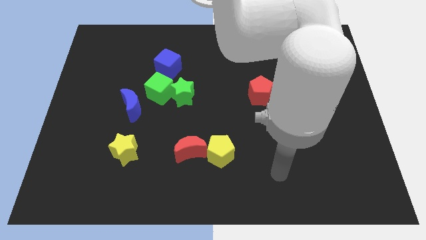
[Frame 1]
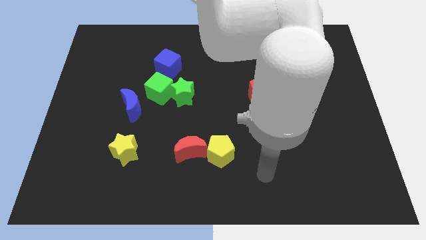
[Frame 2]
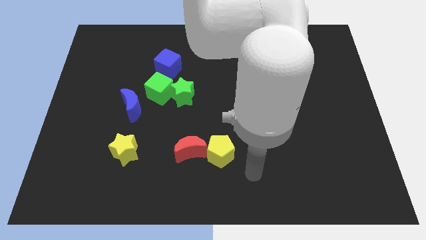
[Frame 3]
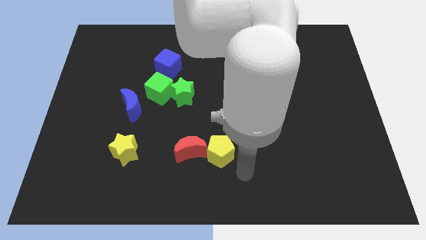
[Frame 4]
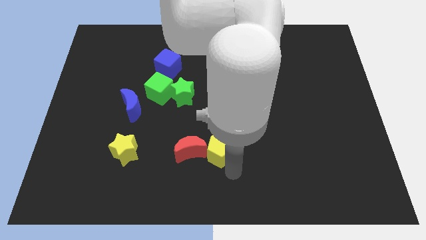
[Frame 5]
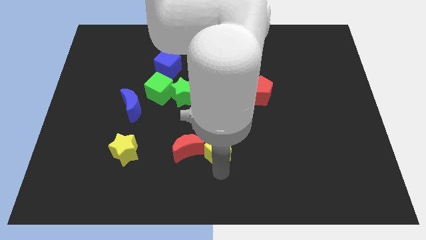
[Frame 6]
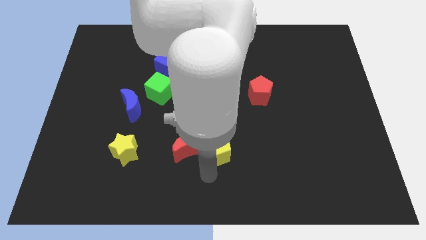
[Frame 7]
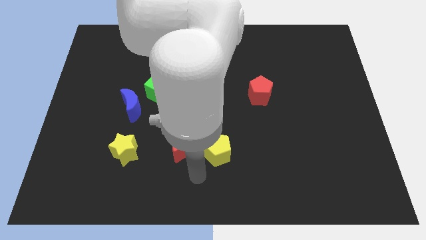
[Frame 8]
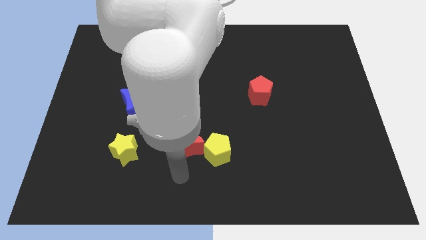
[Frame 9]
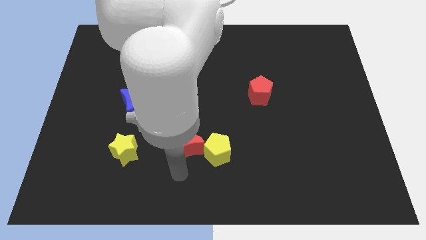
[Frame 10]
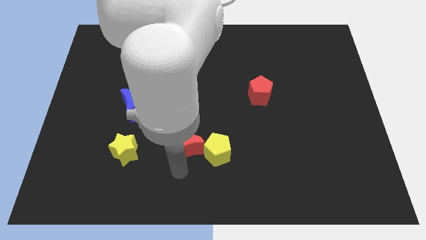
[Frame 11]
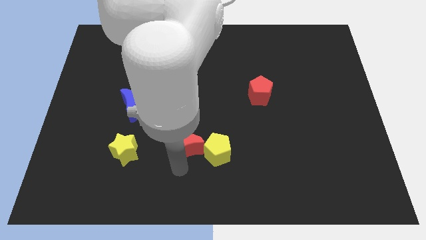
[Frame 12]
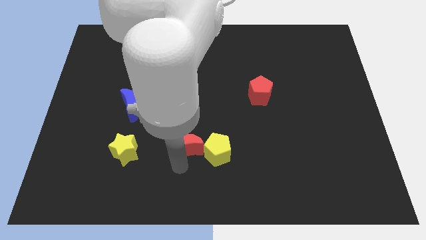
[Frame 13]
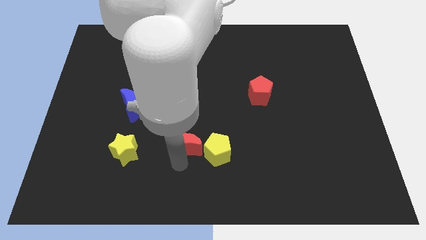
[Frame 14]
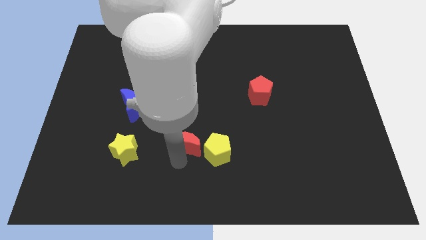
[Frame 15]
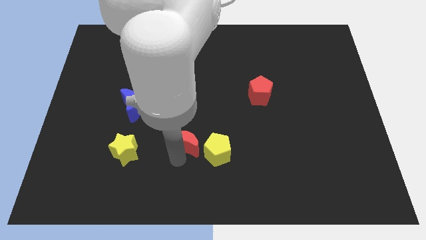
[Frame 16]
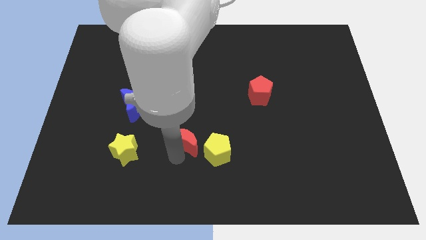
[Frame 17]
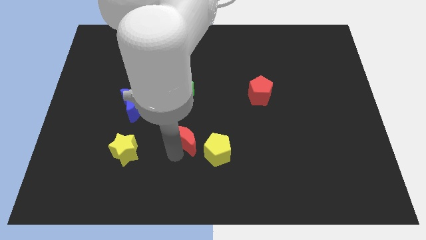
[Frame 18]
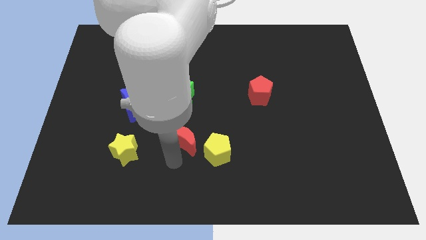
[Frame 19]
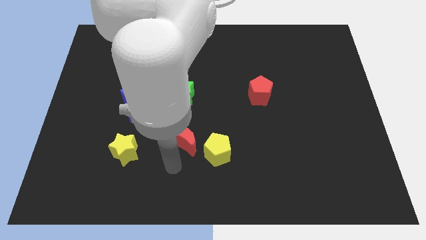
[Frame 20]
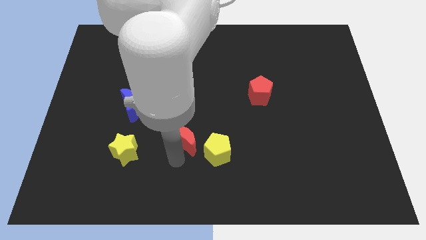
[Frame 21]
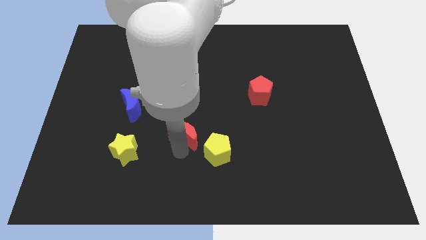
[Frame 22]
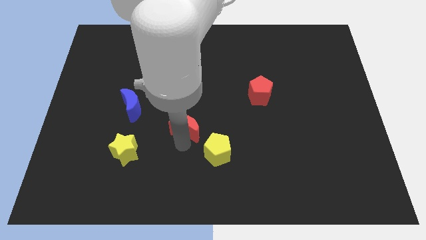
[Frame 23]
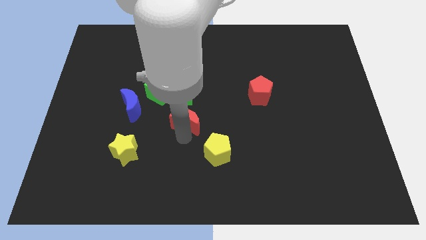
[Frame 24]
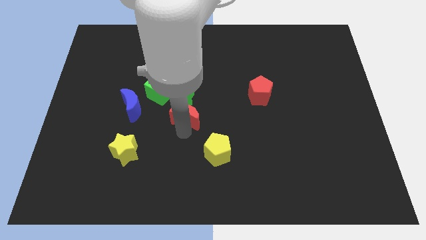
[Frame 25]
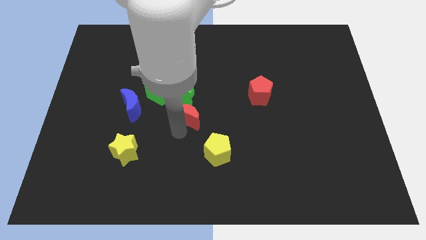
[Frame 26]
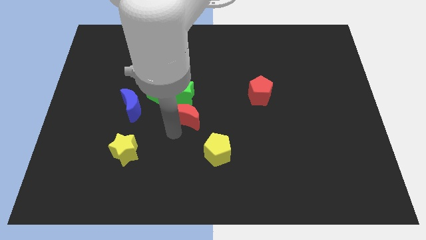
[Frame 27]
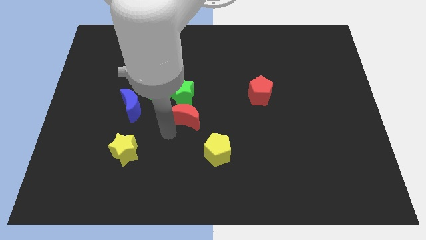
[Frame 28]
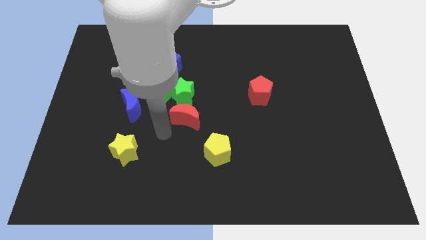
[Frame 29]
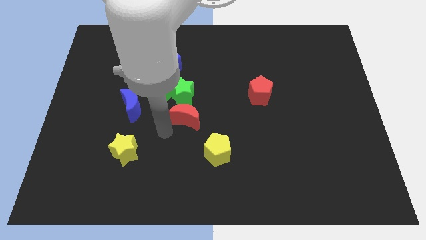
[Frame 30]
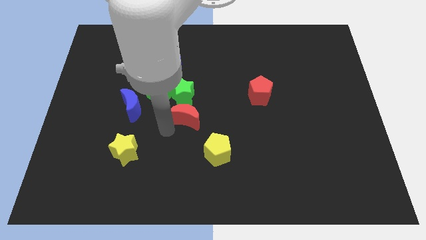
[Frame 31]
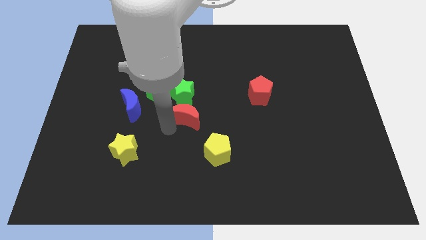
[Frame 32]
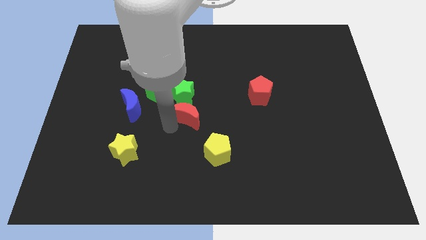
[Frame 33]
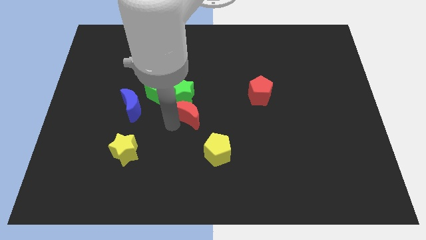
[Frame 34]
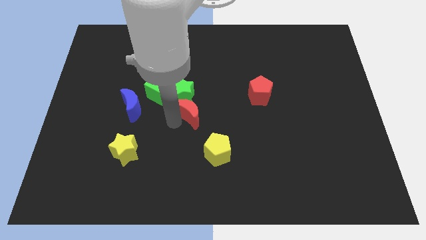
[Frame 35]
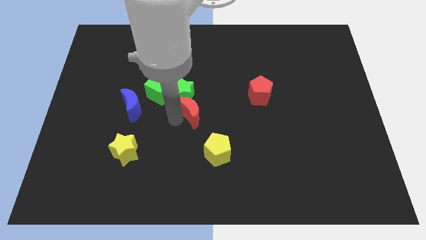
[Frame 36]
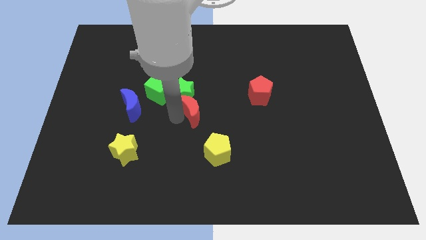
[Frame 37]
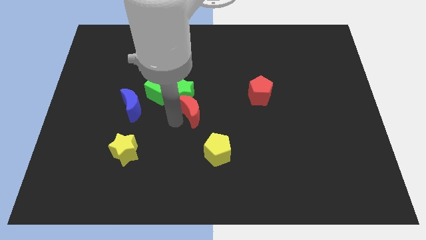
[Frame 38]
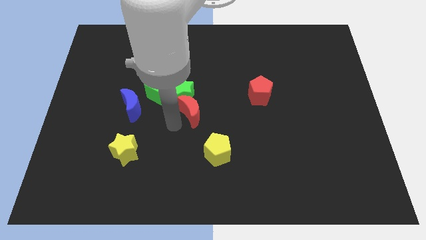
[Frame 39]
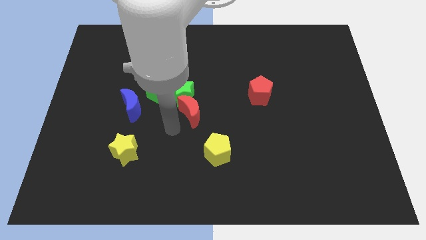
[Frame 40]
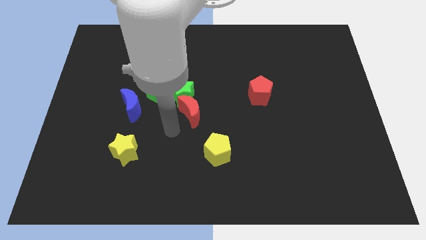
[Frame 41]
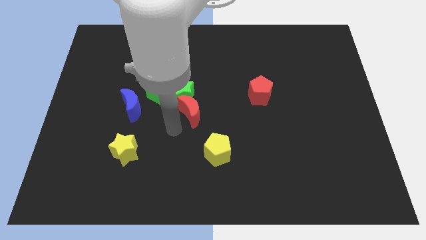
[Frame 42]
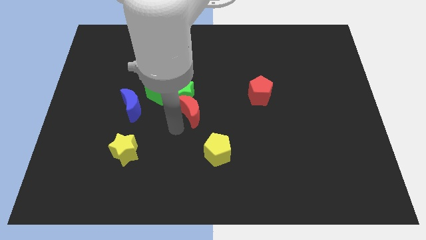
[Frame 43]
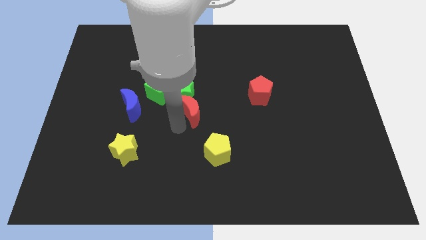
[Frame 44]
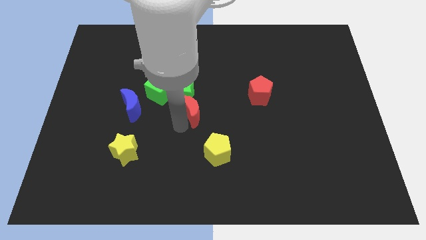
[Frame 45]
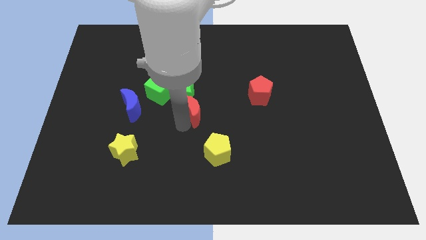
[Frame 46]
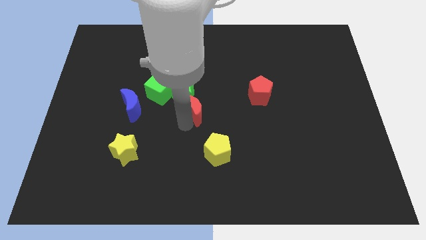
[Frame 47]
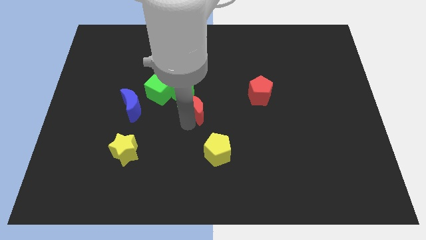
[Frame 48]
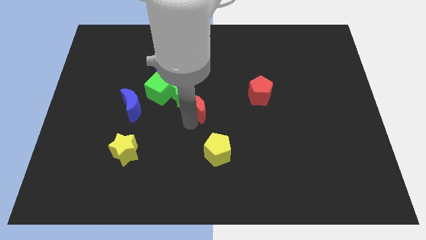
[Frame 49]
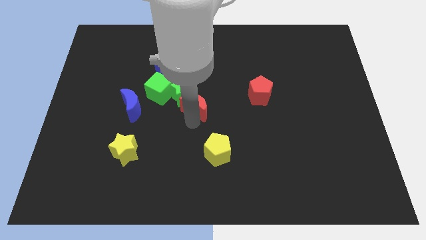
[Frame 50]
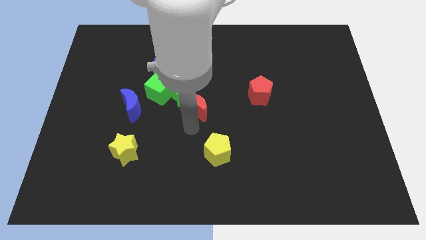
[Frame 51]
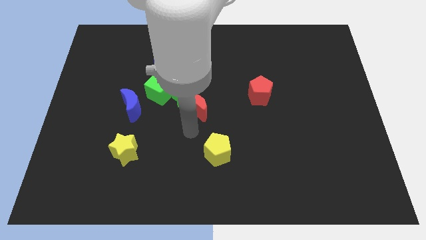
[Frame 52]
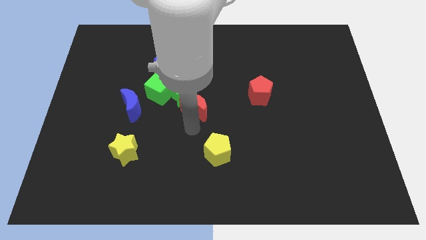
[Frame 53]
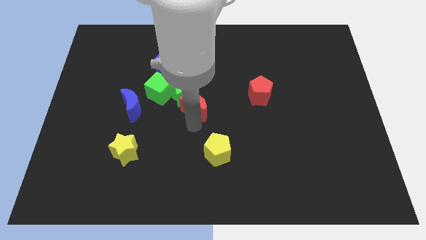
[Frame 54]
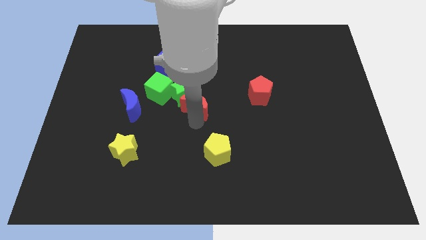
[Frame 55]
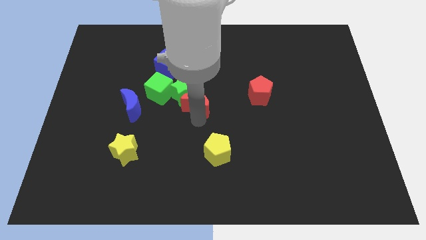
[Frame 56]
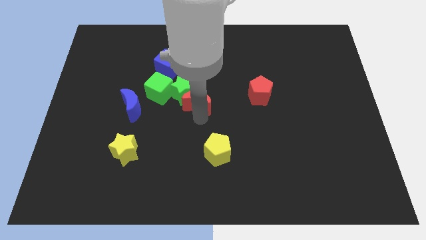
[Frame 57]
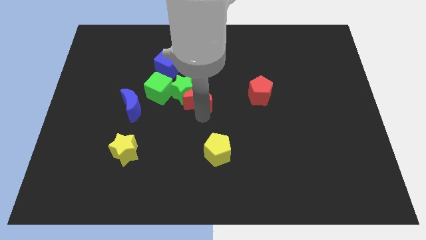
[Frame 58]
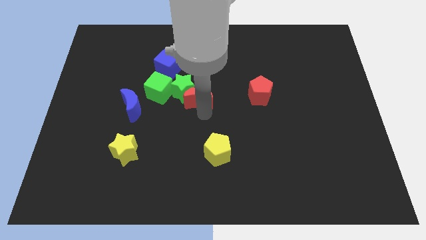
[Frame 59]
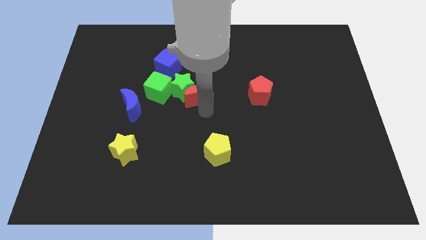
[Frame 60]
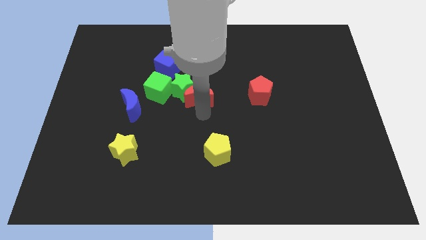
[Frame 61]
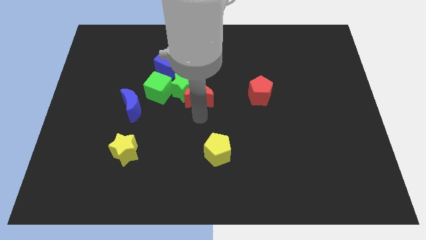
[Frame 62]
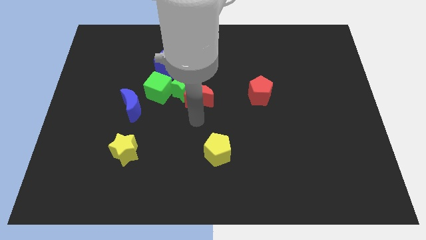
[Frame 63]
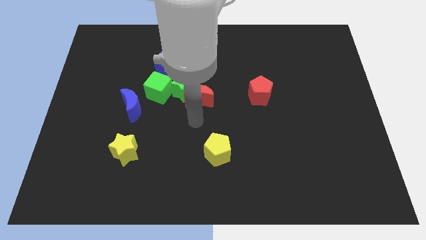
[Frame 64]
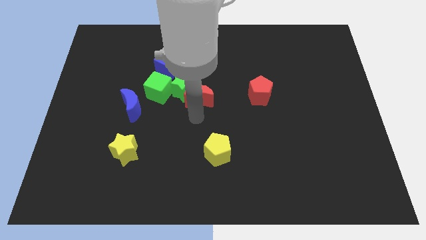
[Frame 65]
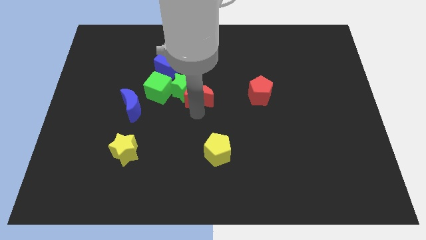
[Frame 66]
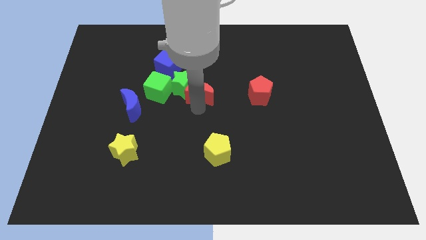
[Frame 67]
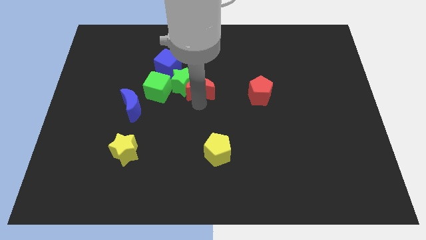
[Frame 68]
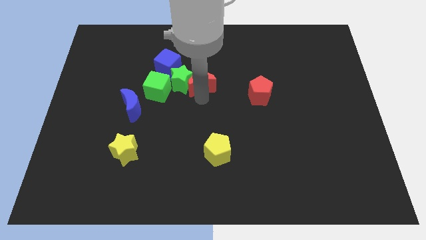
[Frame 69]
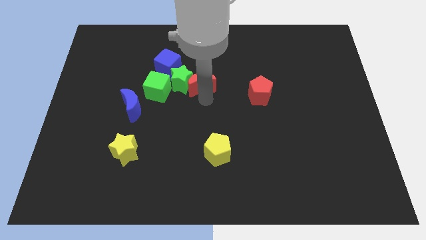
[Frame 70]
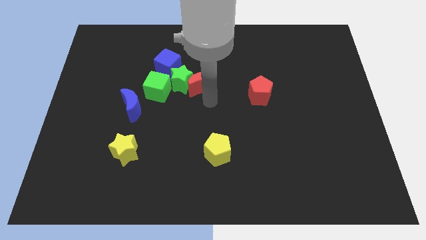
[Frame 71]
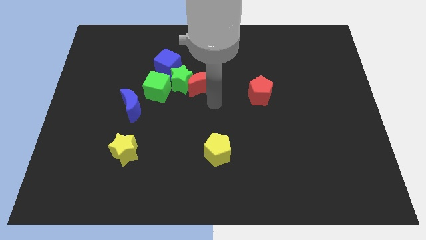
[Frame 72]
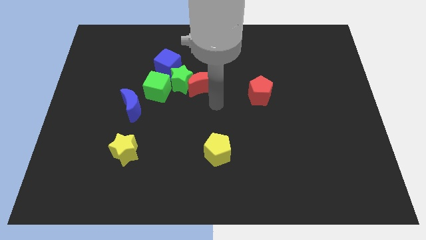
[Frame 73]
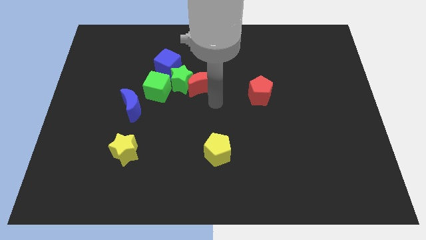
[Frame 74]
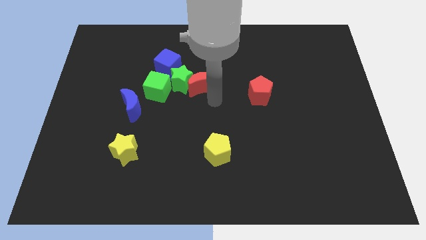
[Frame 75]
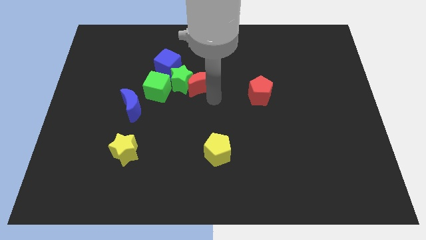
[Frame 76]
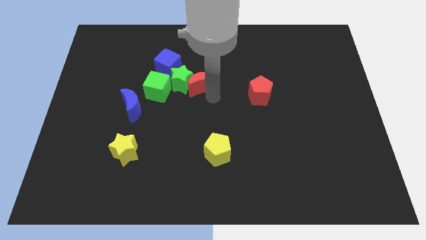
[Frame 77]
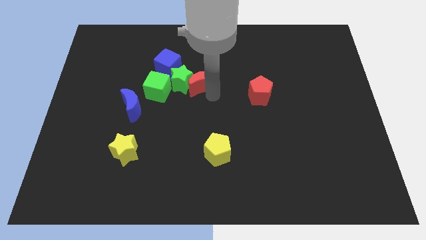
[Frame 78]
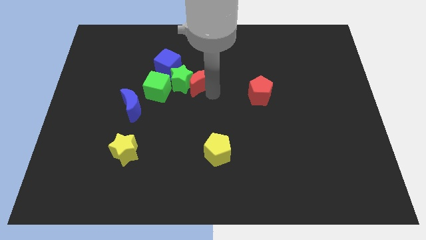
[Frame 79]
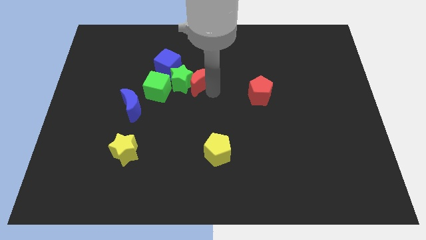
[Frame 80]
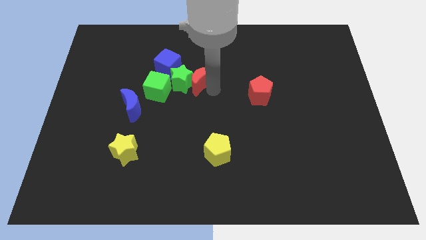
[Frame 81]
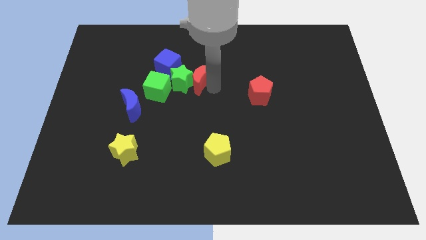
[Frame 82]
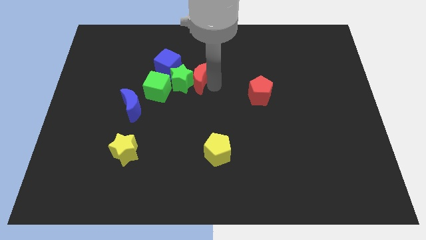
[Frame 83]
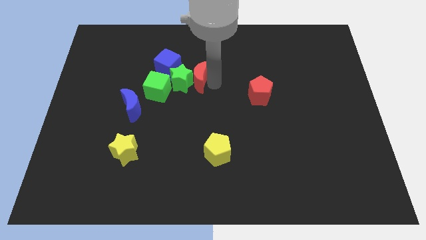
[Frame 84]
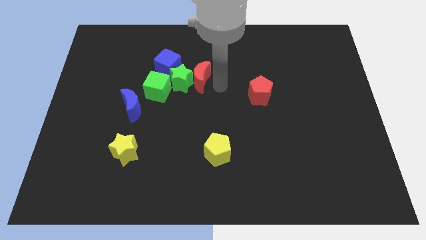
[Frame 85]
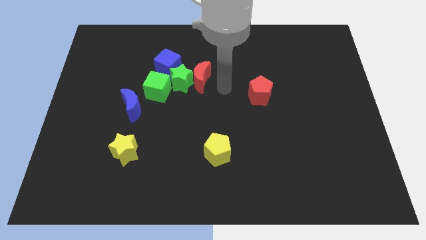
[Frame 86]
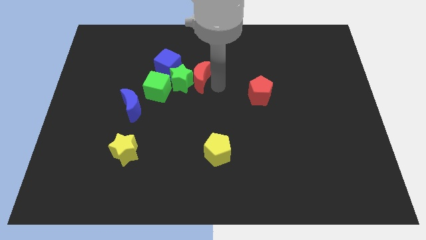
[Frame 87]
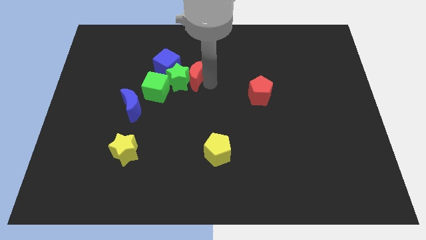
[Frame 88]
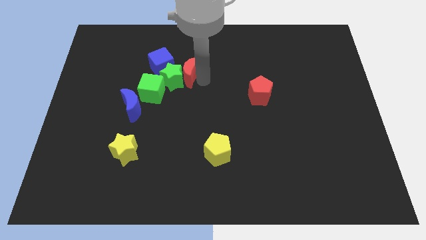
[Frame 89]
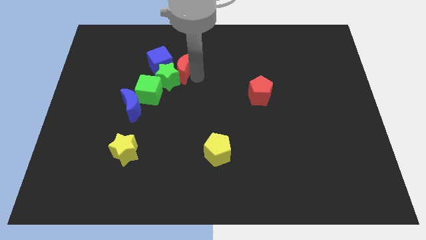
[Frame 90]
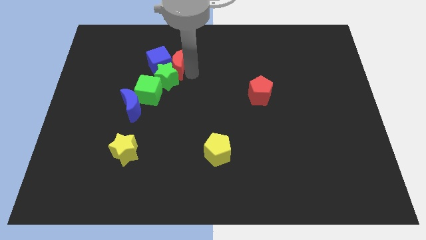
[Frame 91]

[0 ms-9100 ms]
move the red moon next to the blue cube
